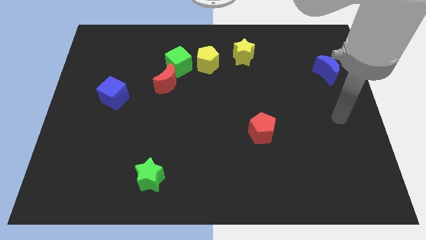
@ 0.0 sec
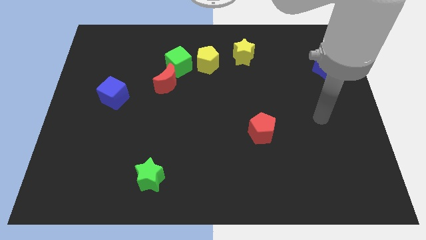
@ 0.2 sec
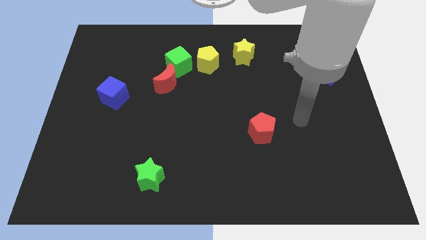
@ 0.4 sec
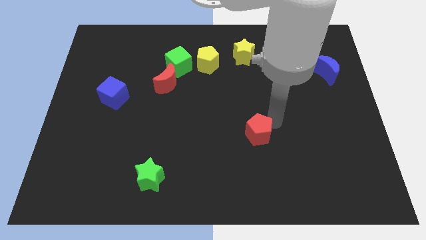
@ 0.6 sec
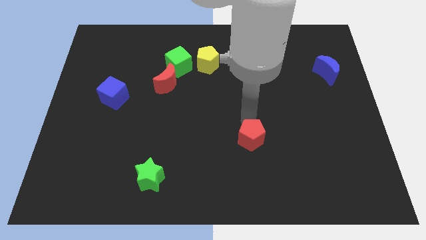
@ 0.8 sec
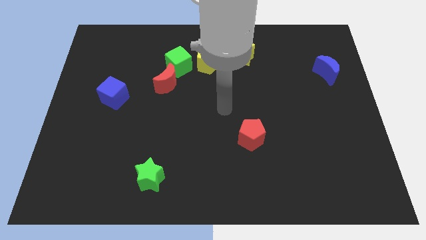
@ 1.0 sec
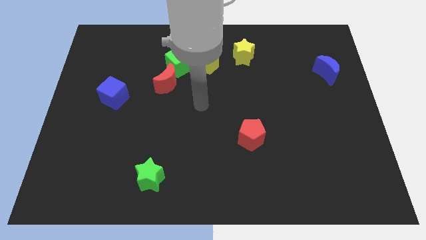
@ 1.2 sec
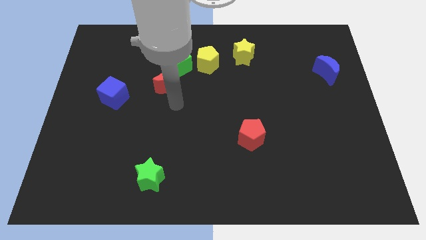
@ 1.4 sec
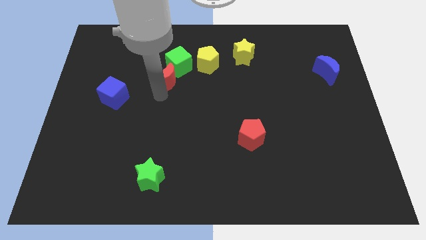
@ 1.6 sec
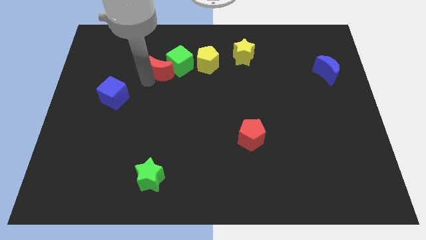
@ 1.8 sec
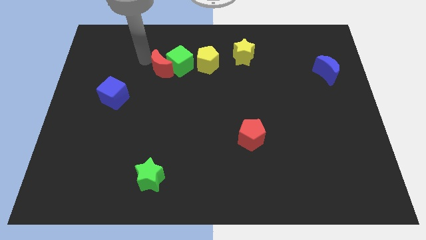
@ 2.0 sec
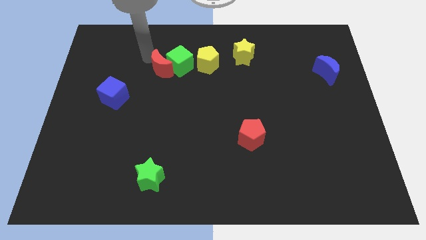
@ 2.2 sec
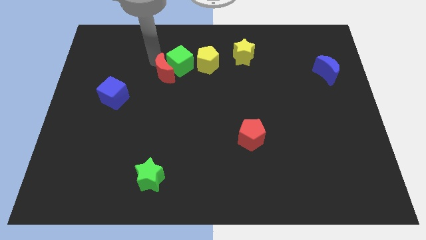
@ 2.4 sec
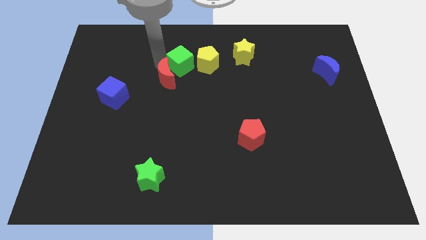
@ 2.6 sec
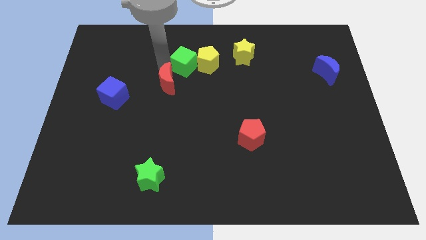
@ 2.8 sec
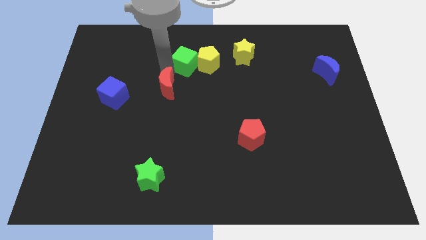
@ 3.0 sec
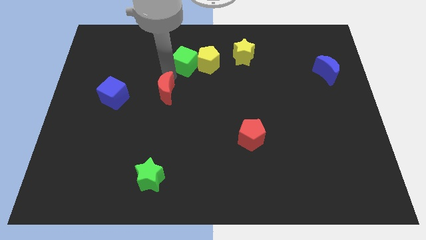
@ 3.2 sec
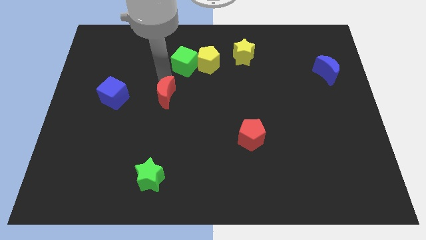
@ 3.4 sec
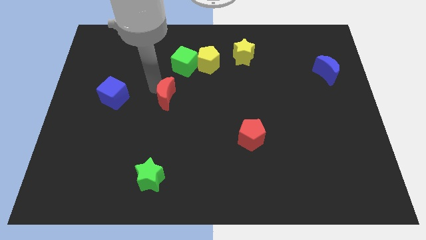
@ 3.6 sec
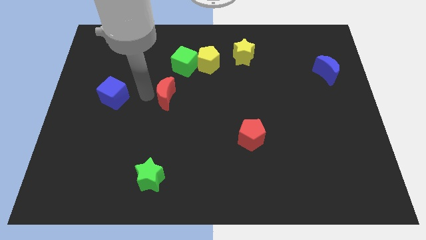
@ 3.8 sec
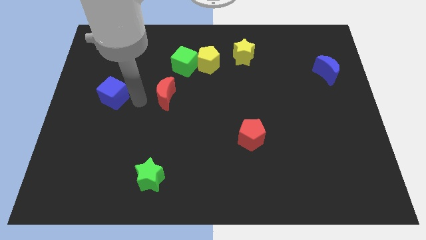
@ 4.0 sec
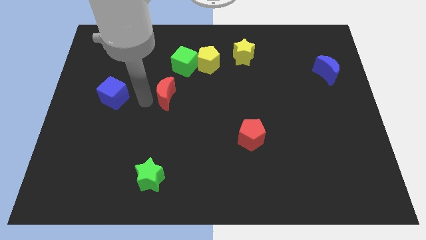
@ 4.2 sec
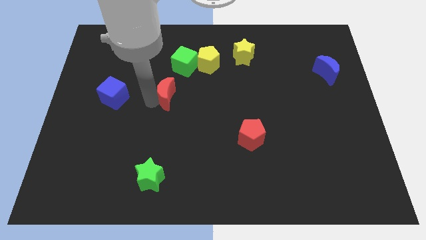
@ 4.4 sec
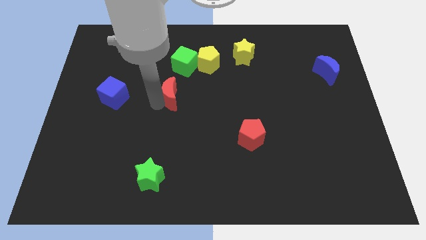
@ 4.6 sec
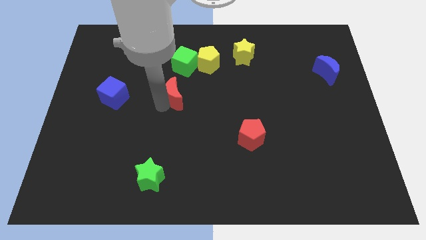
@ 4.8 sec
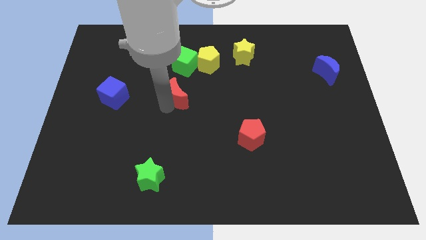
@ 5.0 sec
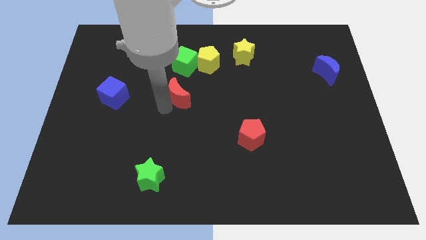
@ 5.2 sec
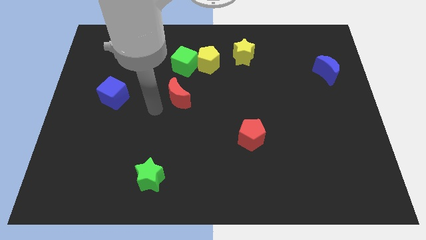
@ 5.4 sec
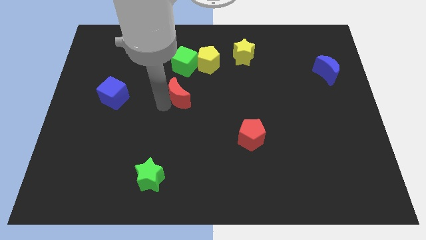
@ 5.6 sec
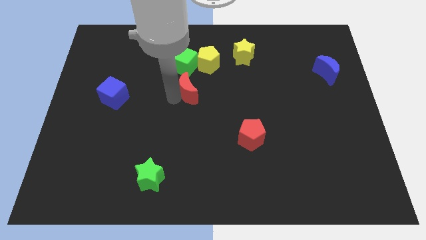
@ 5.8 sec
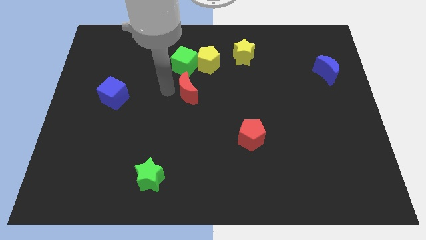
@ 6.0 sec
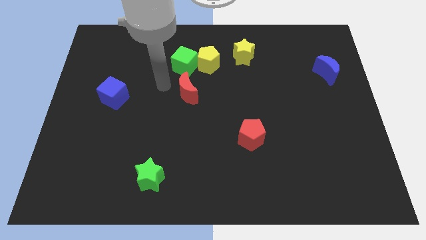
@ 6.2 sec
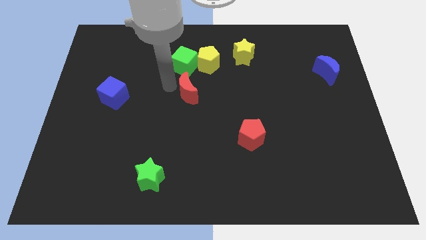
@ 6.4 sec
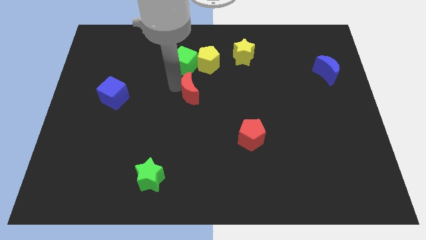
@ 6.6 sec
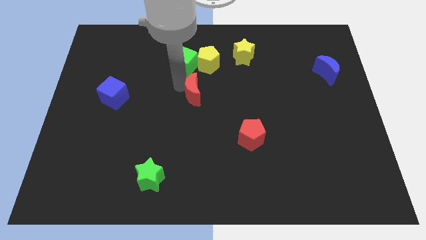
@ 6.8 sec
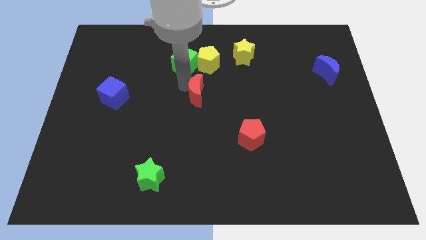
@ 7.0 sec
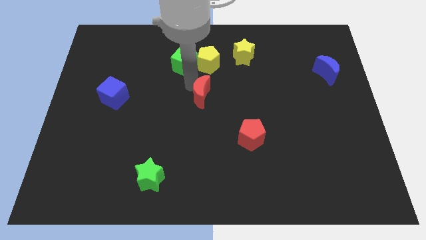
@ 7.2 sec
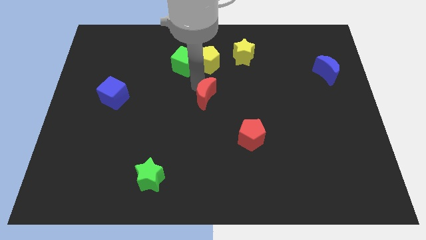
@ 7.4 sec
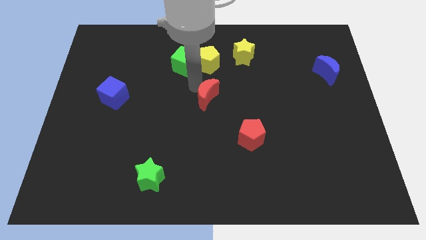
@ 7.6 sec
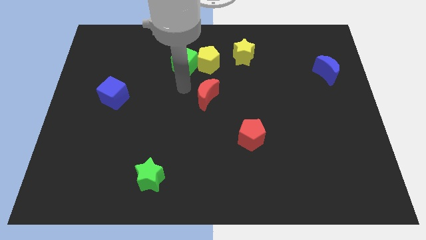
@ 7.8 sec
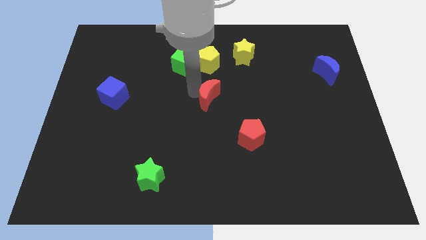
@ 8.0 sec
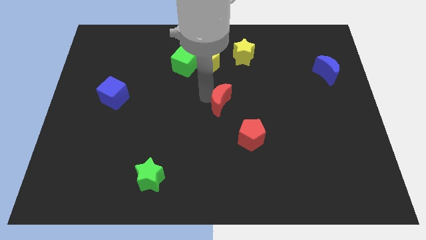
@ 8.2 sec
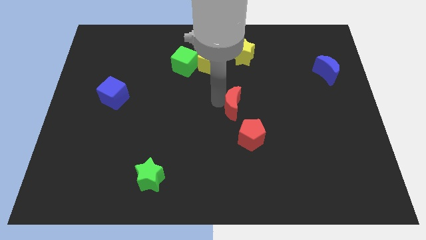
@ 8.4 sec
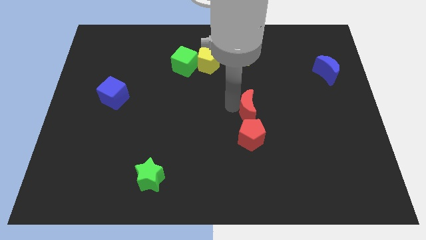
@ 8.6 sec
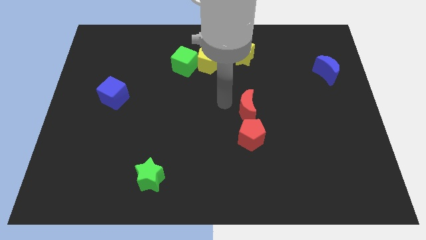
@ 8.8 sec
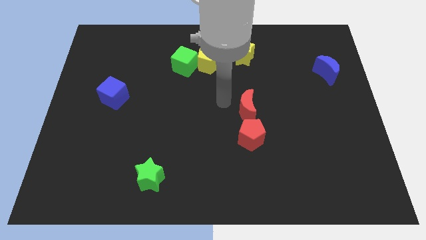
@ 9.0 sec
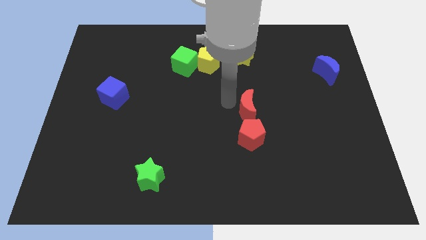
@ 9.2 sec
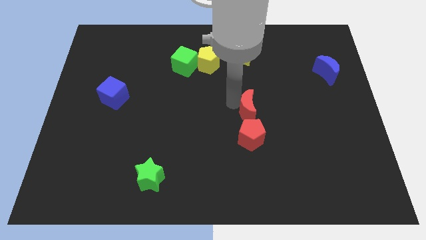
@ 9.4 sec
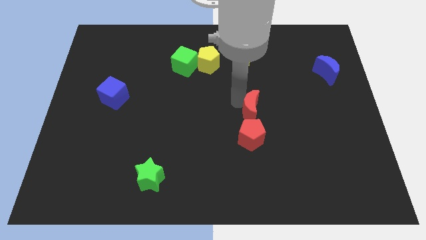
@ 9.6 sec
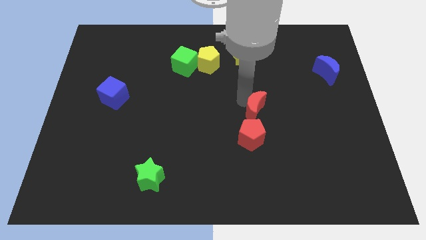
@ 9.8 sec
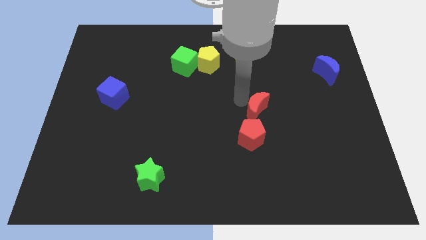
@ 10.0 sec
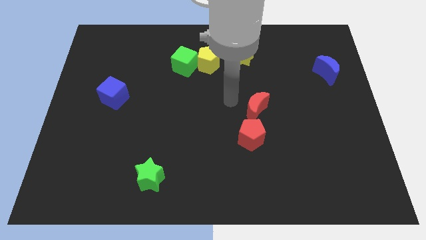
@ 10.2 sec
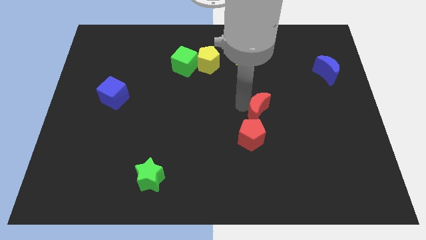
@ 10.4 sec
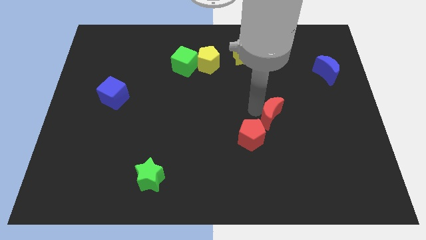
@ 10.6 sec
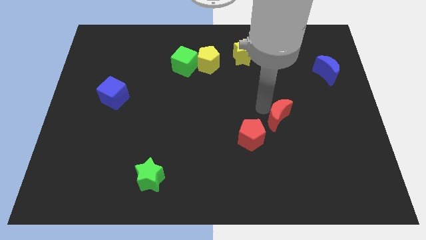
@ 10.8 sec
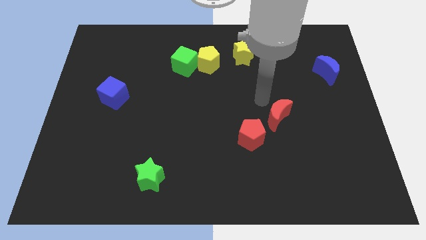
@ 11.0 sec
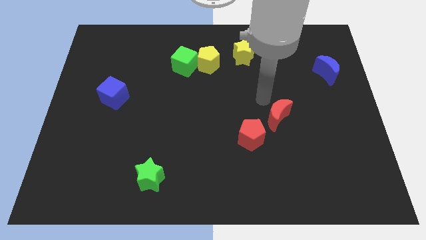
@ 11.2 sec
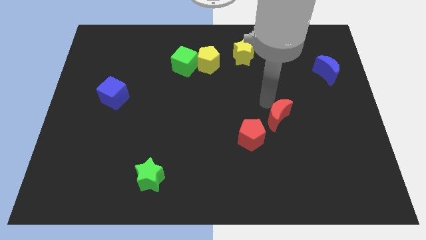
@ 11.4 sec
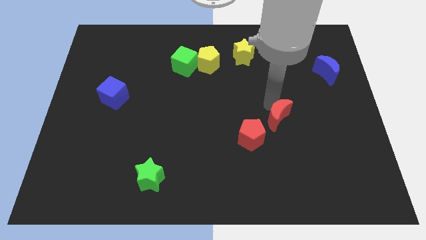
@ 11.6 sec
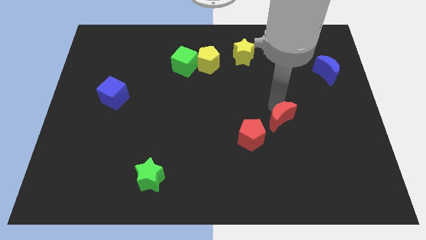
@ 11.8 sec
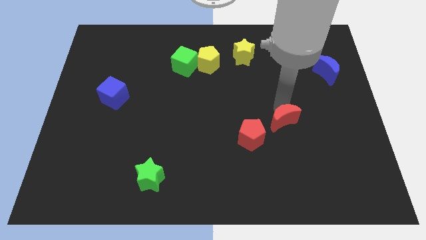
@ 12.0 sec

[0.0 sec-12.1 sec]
slide the red moon just right of the red pentagon
